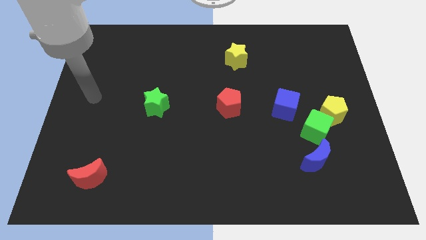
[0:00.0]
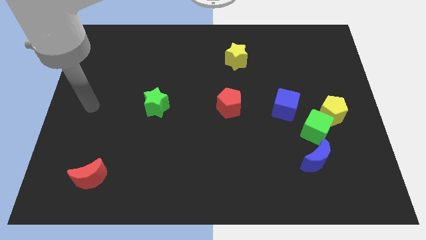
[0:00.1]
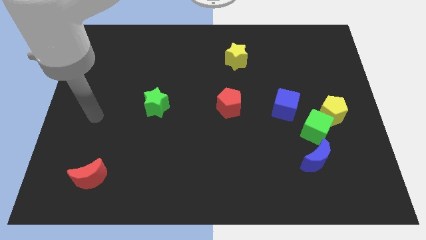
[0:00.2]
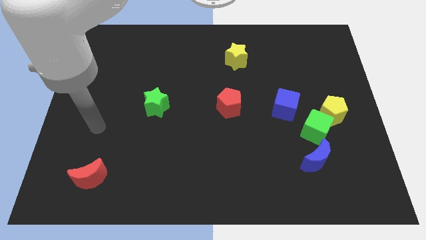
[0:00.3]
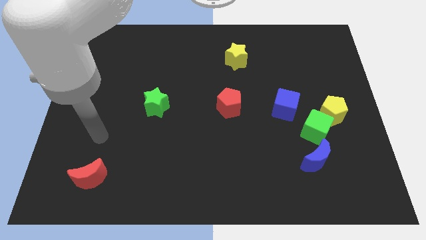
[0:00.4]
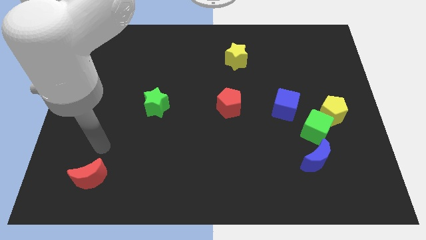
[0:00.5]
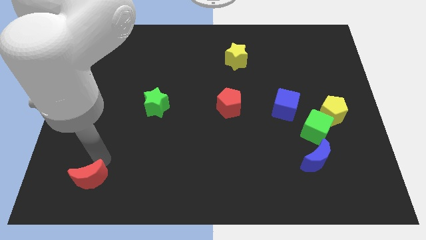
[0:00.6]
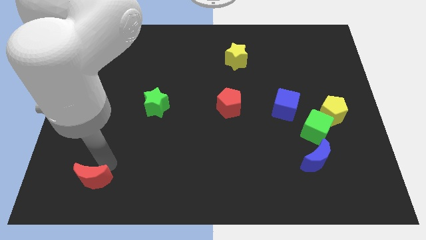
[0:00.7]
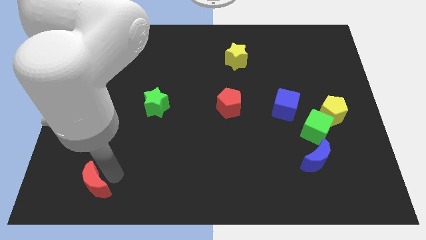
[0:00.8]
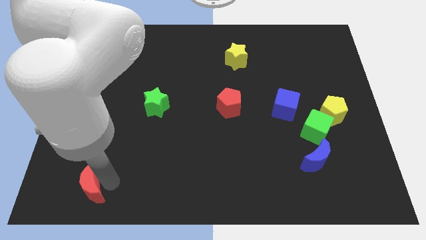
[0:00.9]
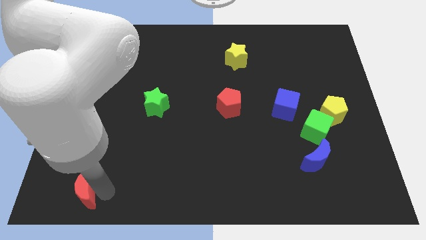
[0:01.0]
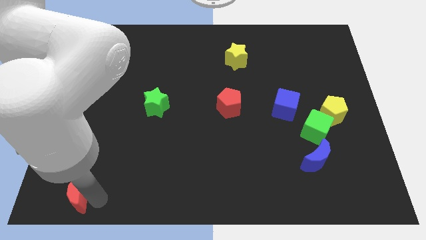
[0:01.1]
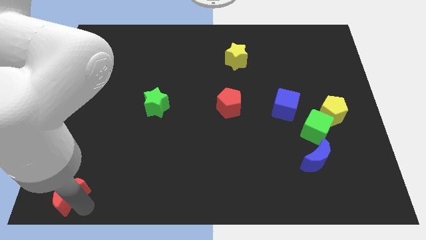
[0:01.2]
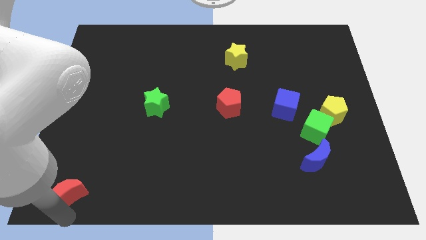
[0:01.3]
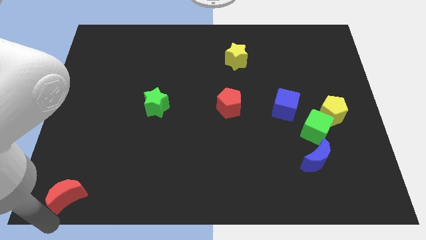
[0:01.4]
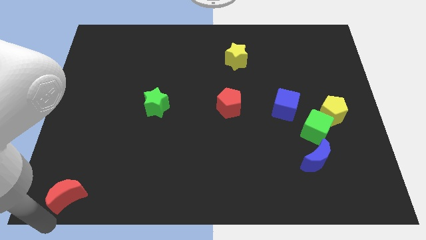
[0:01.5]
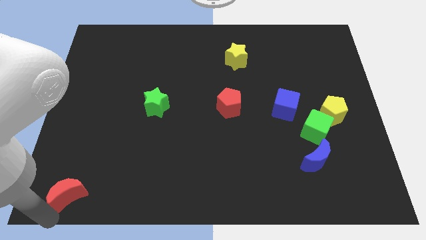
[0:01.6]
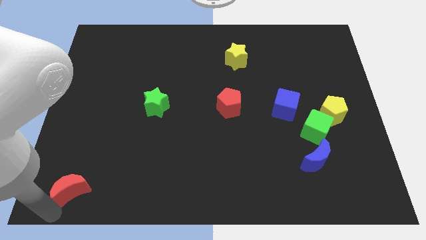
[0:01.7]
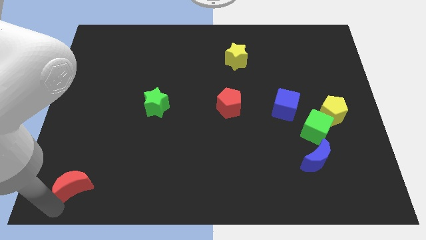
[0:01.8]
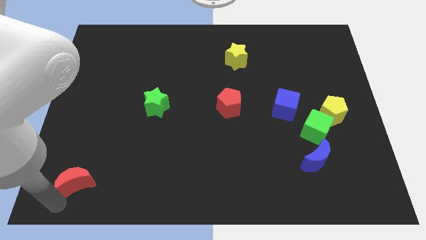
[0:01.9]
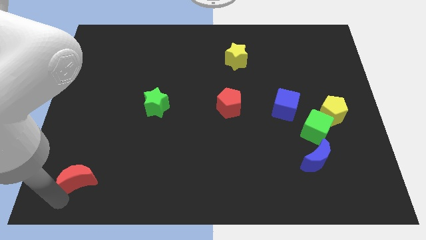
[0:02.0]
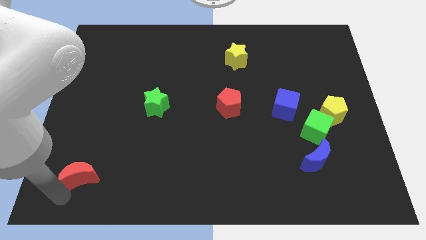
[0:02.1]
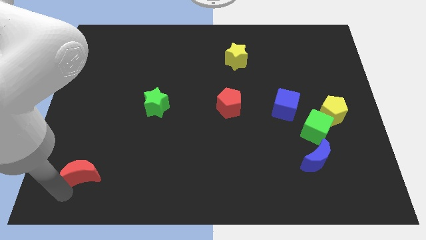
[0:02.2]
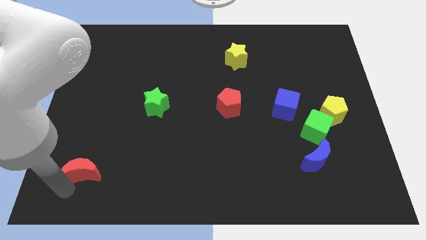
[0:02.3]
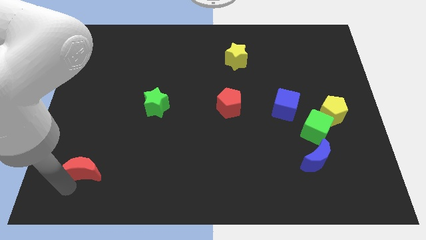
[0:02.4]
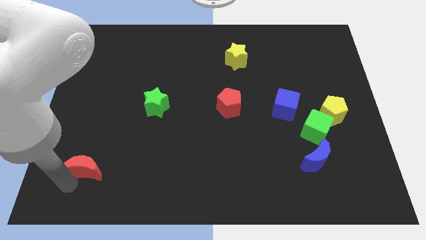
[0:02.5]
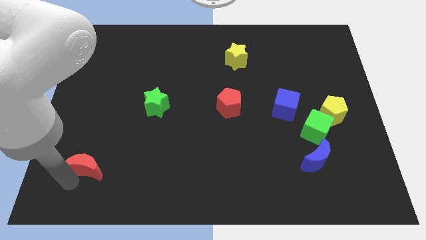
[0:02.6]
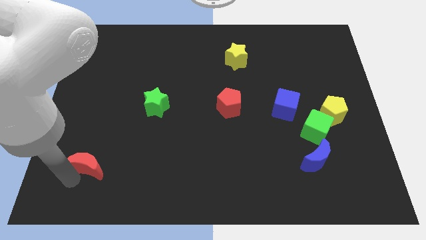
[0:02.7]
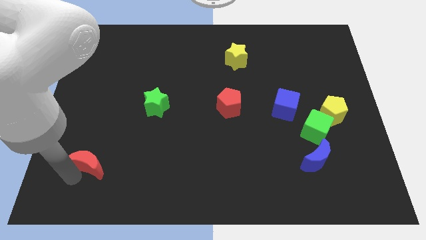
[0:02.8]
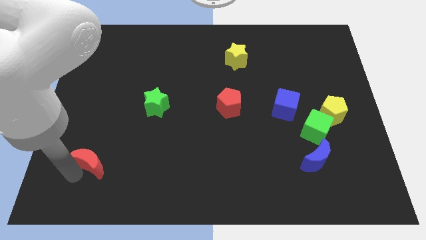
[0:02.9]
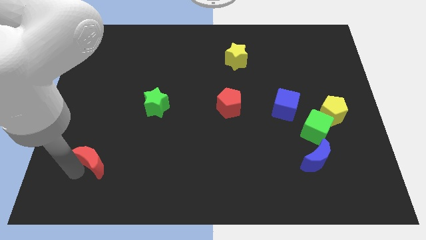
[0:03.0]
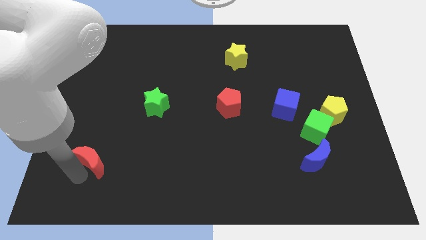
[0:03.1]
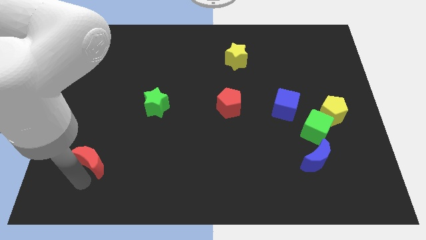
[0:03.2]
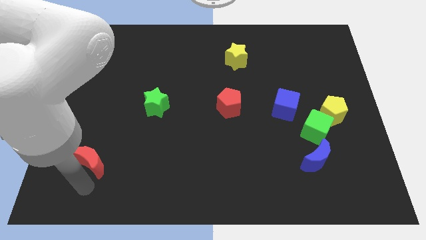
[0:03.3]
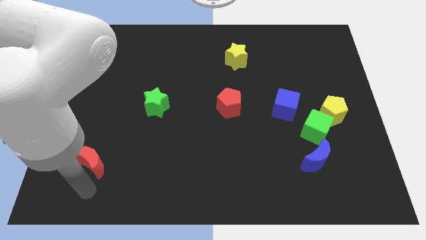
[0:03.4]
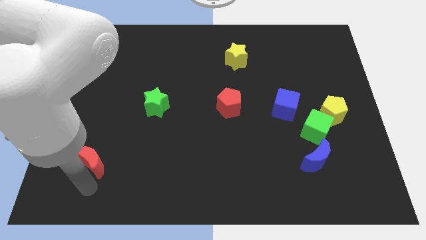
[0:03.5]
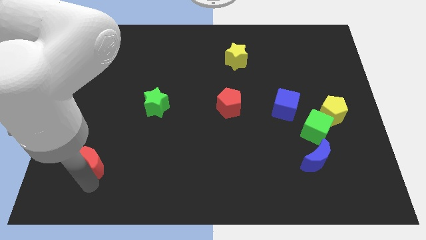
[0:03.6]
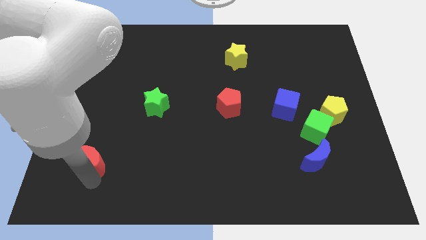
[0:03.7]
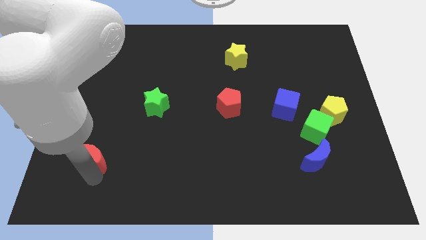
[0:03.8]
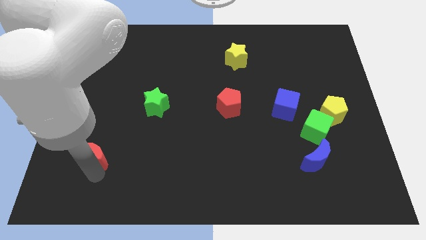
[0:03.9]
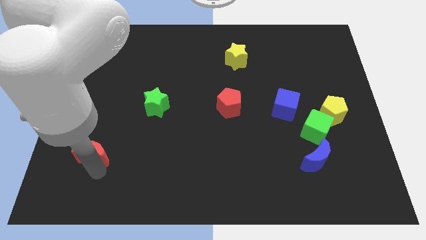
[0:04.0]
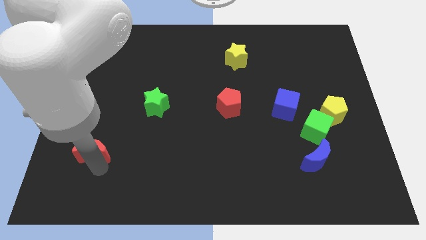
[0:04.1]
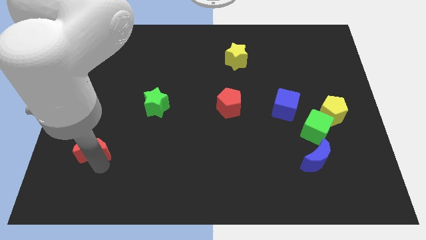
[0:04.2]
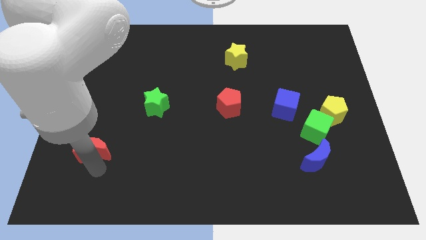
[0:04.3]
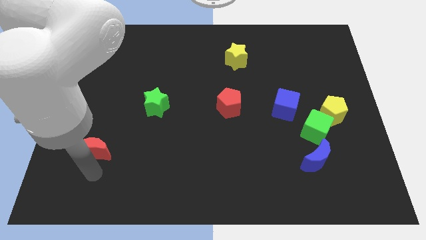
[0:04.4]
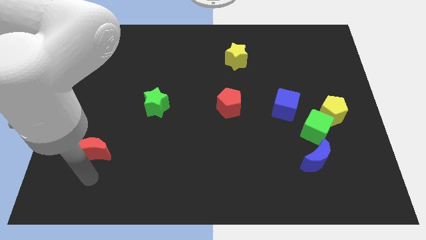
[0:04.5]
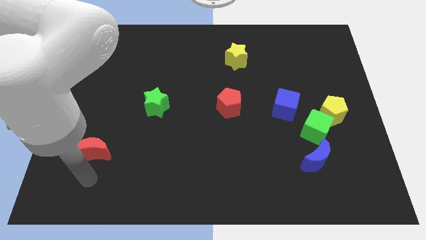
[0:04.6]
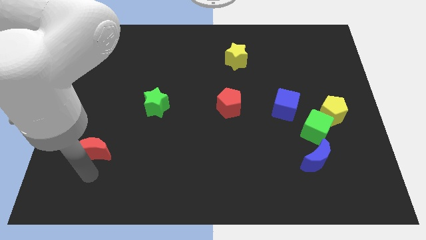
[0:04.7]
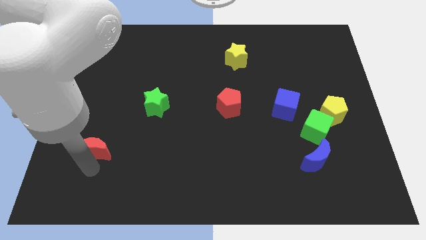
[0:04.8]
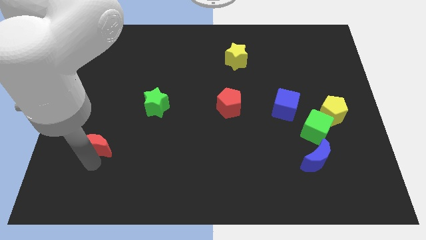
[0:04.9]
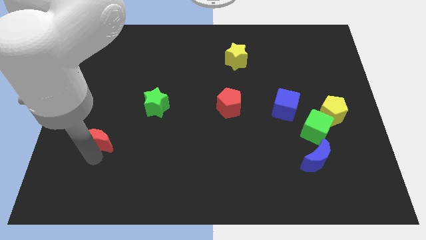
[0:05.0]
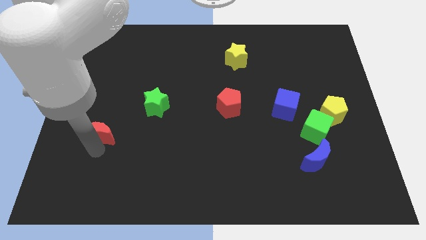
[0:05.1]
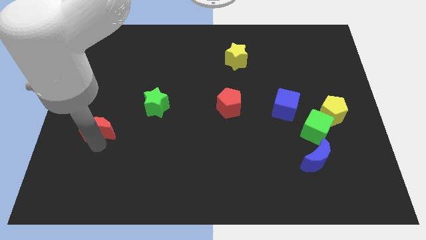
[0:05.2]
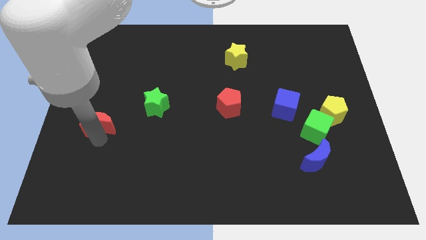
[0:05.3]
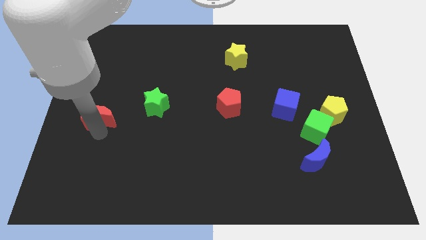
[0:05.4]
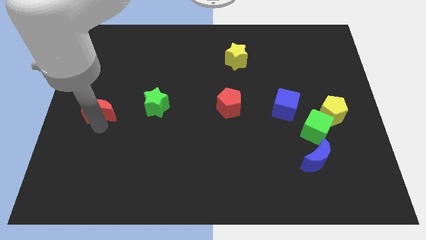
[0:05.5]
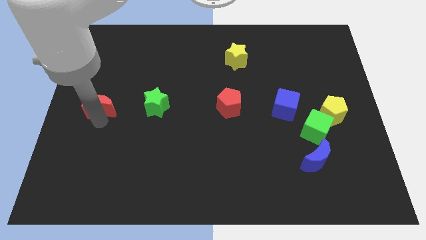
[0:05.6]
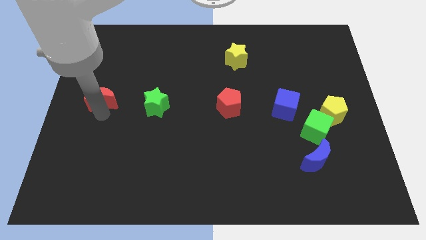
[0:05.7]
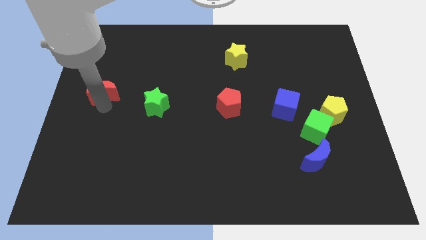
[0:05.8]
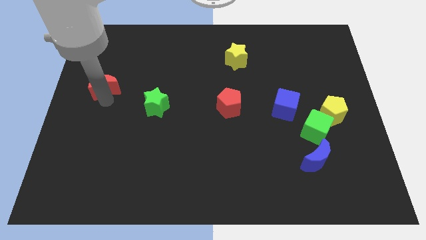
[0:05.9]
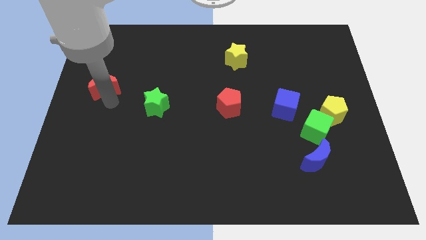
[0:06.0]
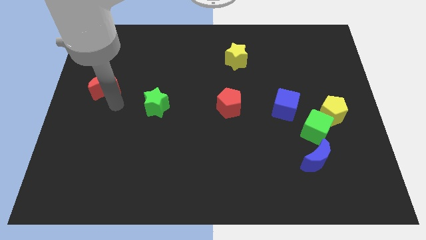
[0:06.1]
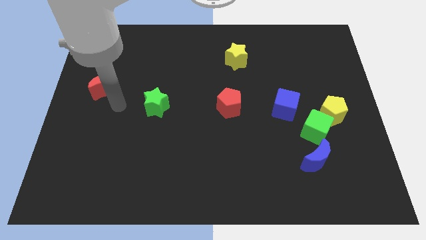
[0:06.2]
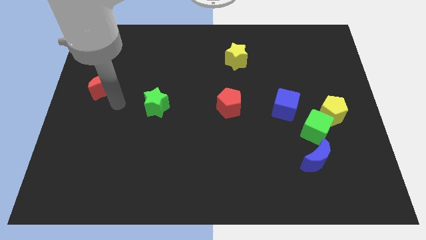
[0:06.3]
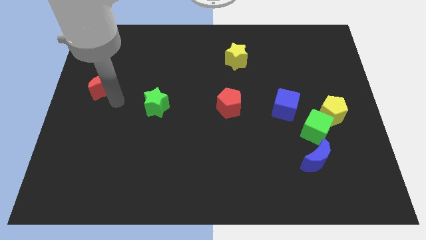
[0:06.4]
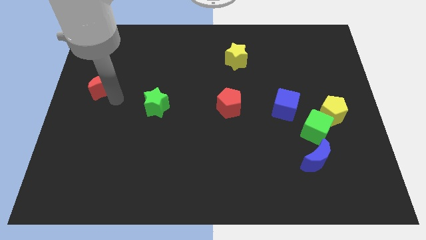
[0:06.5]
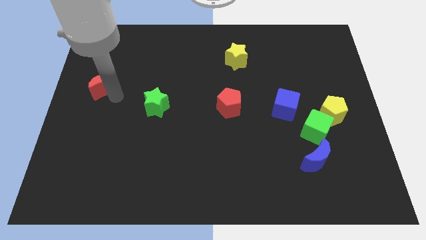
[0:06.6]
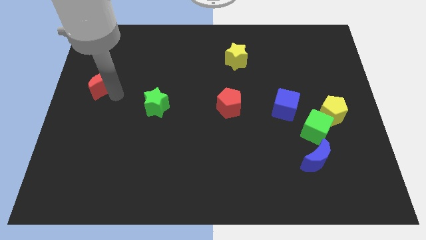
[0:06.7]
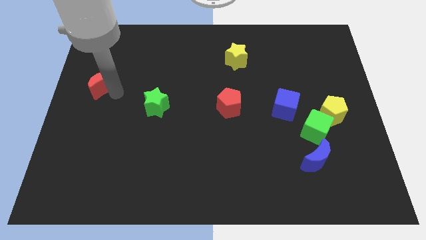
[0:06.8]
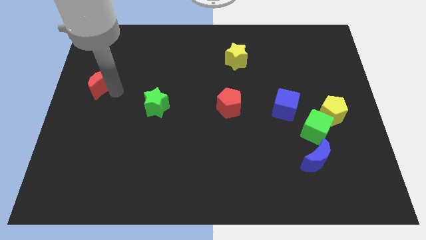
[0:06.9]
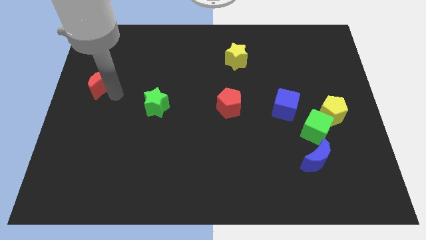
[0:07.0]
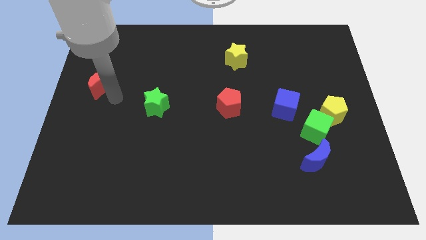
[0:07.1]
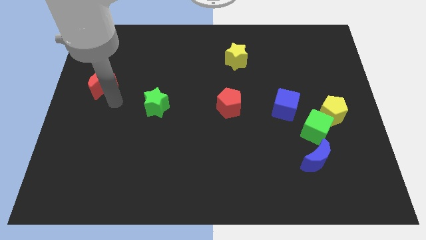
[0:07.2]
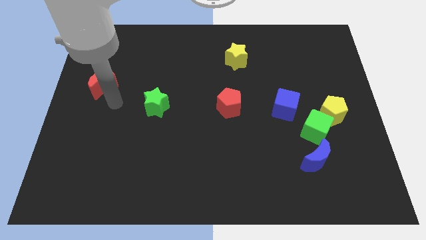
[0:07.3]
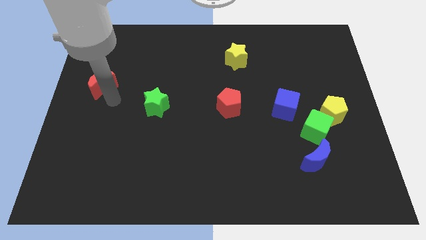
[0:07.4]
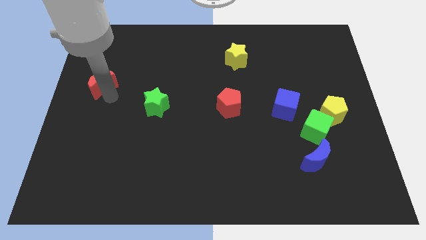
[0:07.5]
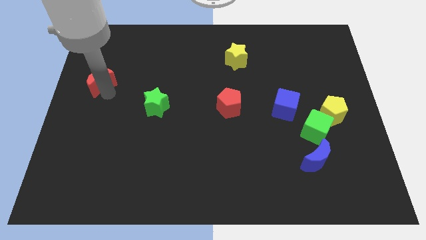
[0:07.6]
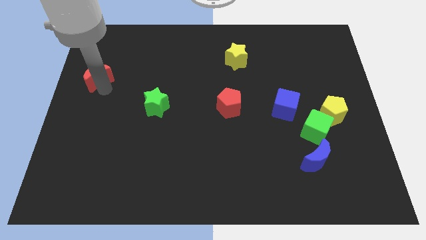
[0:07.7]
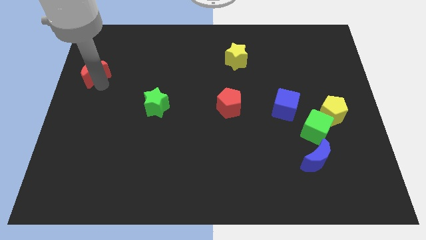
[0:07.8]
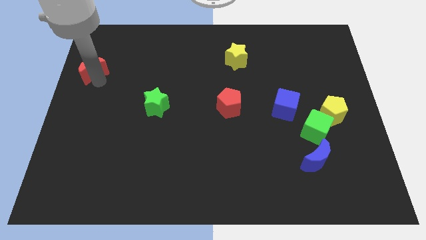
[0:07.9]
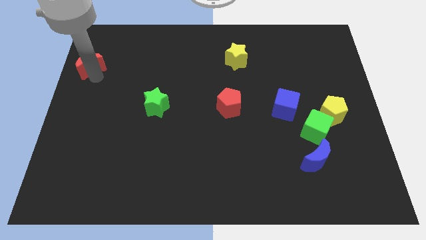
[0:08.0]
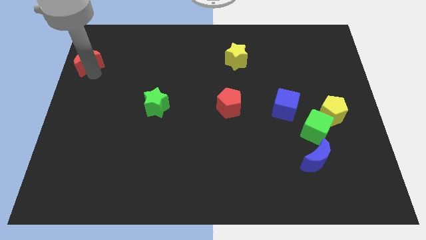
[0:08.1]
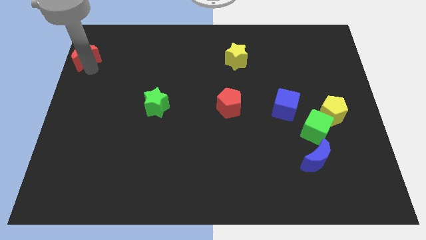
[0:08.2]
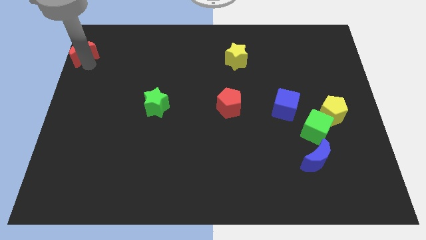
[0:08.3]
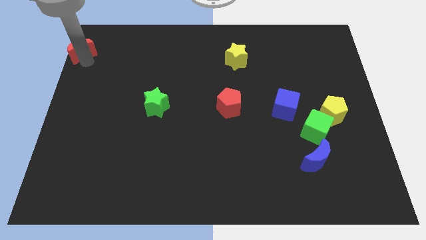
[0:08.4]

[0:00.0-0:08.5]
slide the red moon to the upper left corner
